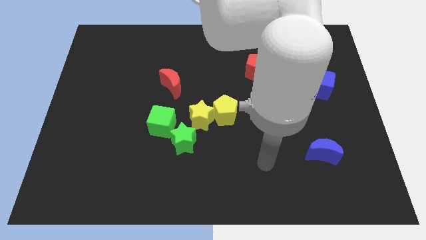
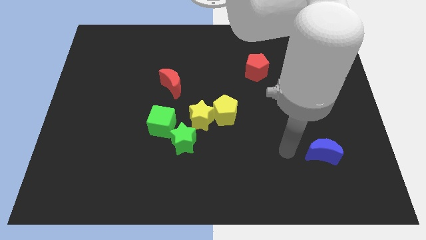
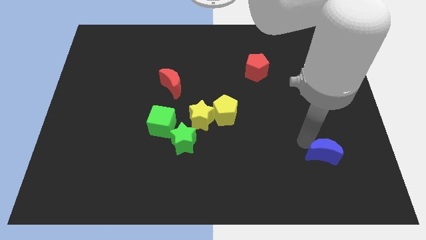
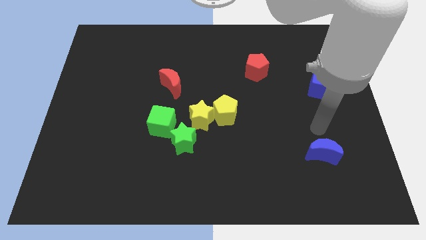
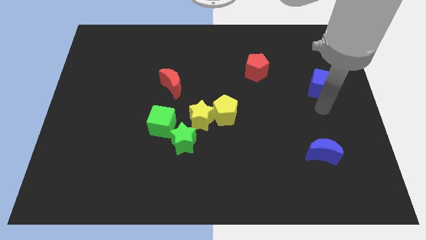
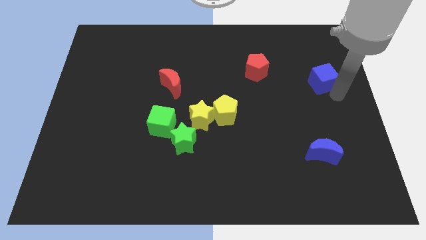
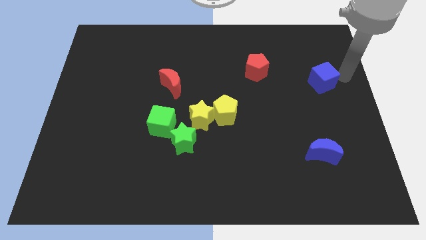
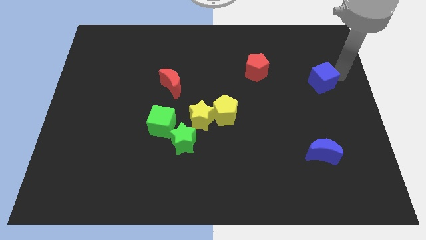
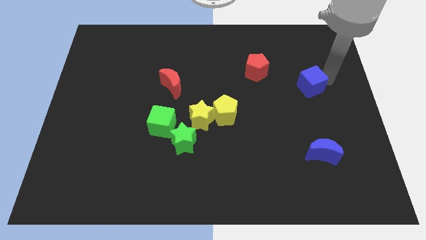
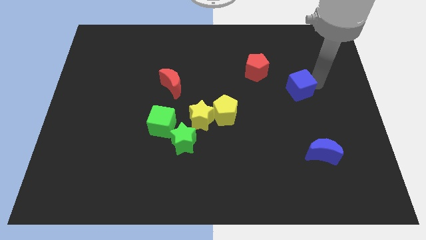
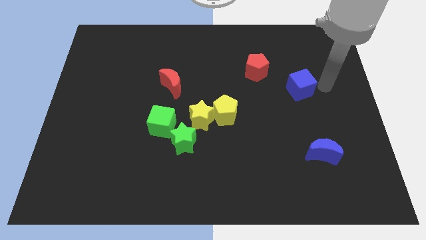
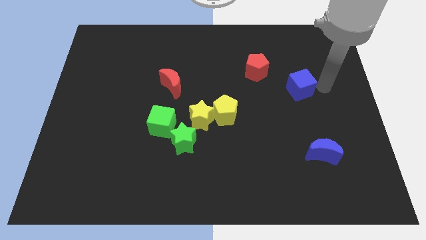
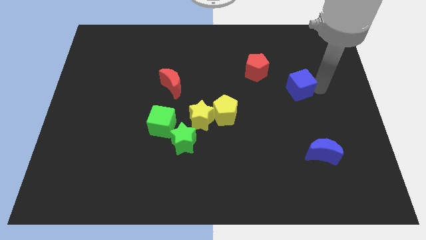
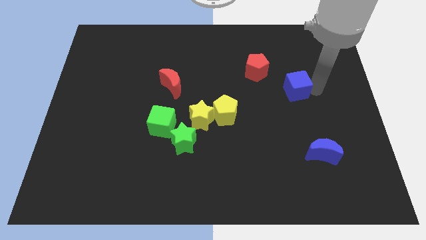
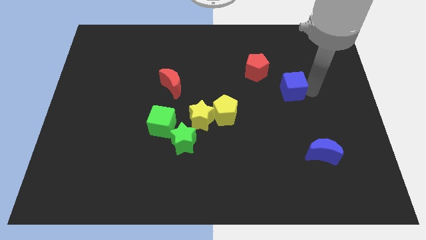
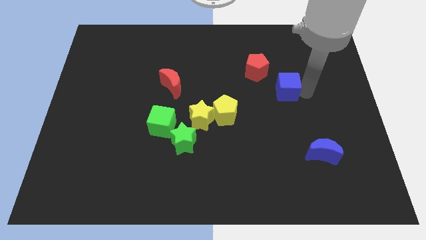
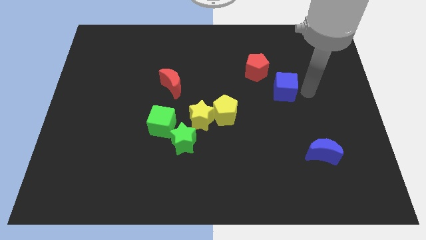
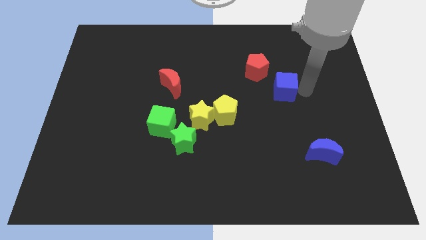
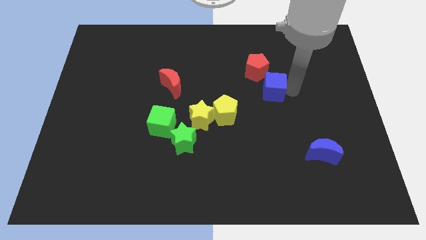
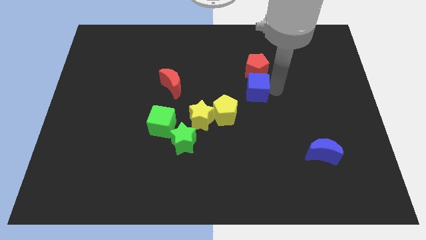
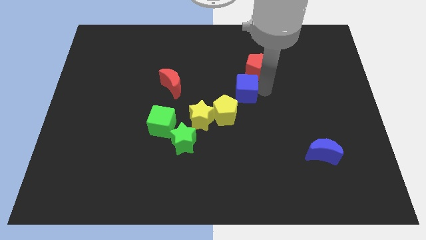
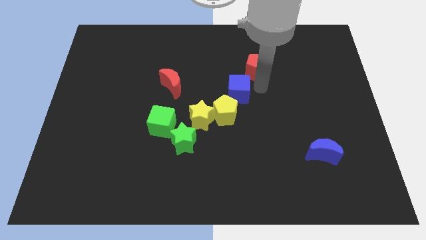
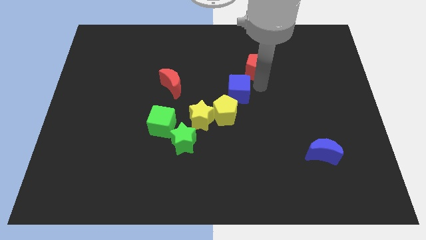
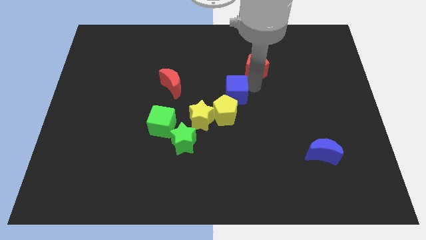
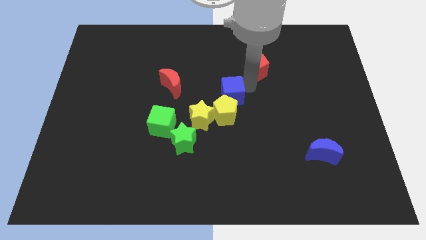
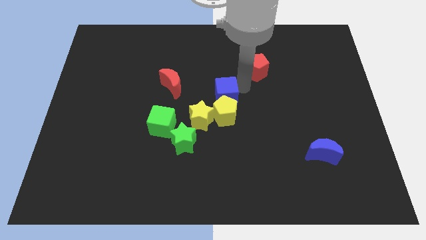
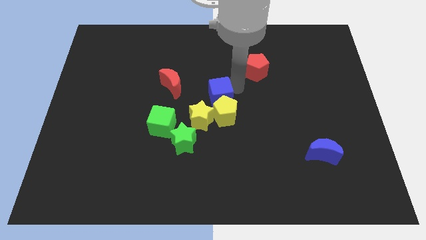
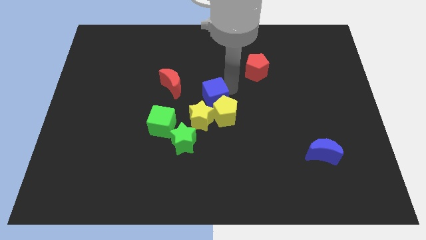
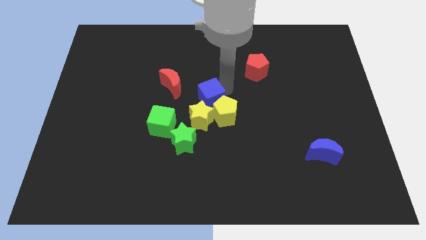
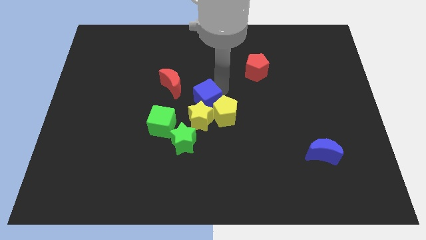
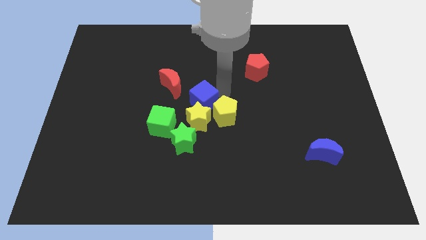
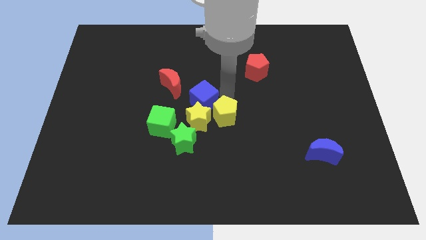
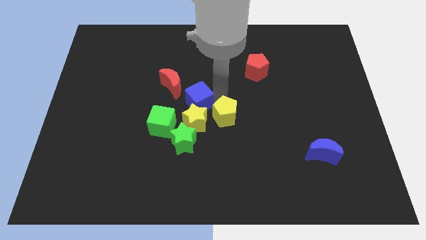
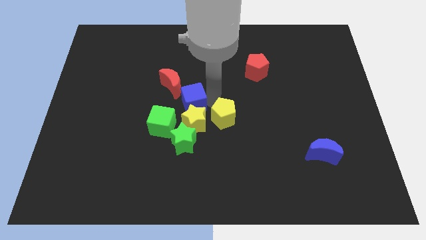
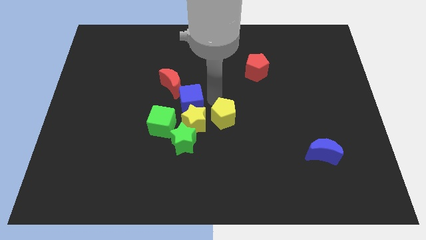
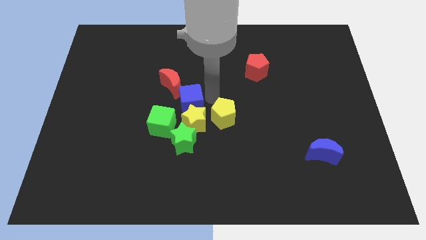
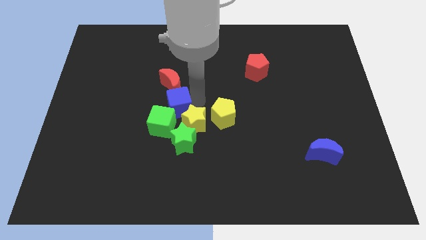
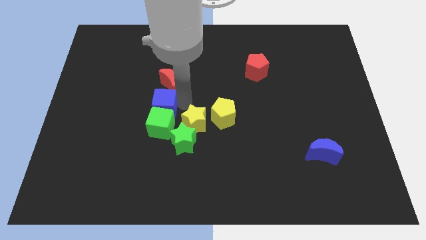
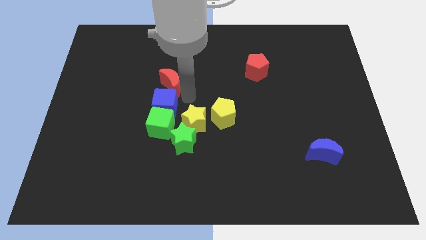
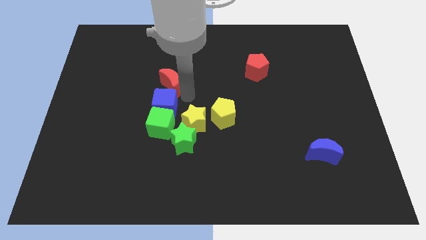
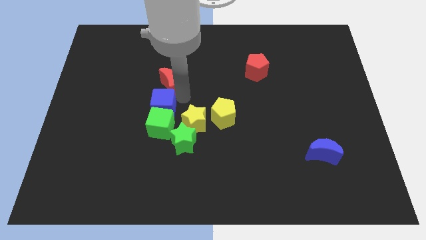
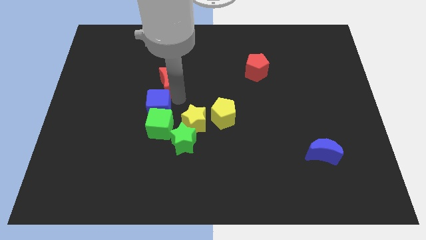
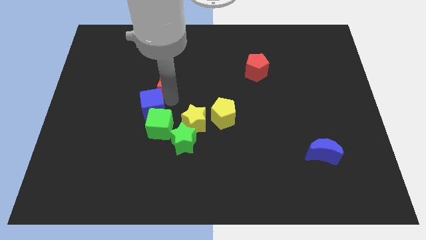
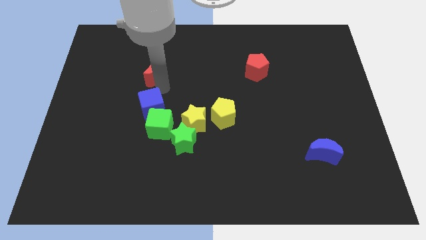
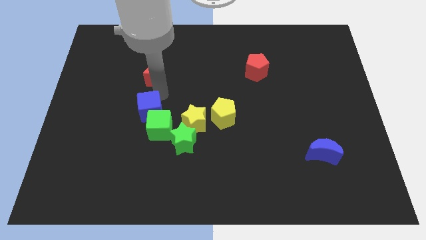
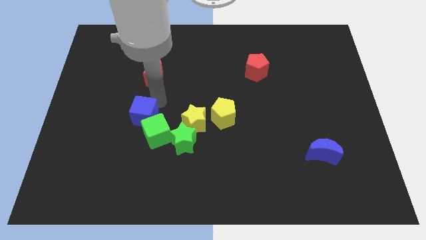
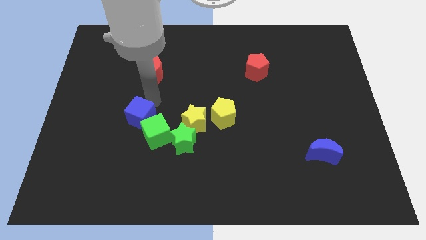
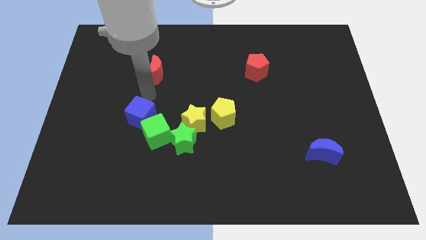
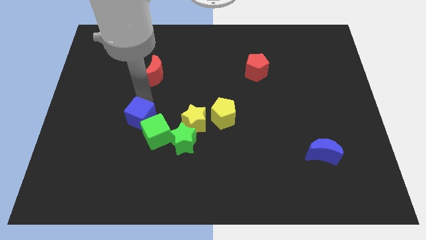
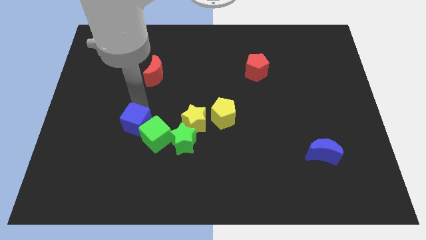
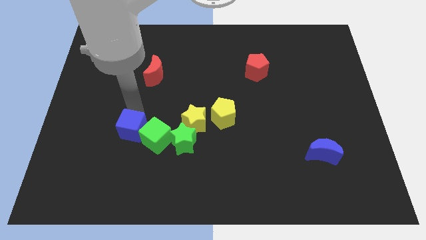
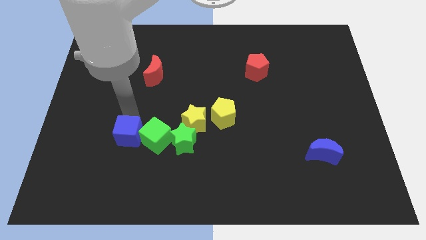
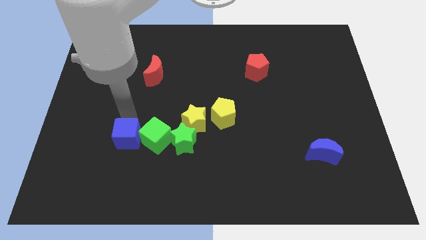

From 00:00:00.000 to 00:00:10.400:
slide the blue cube to the bottom left of the green cube

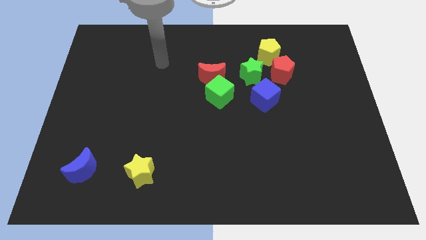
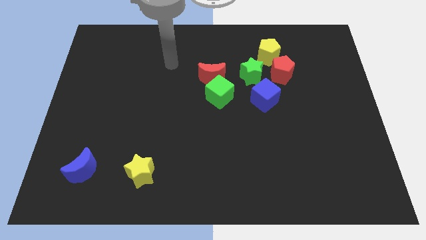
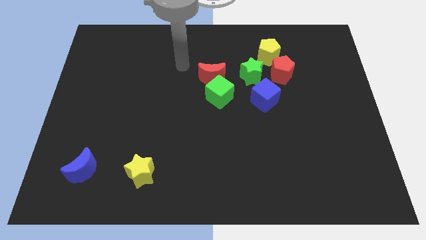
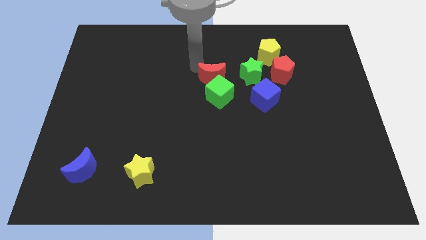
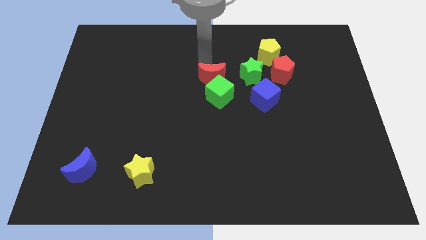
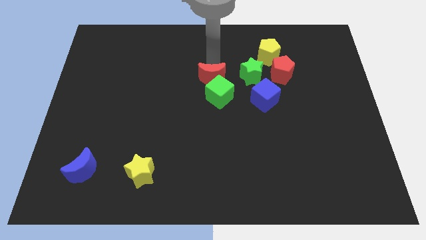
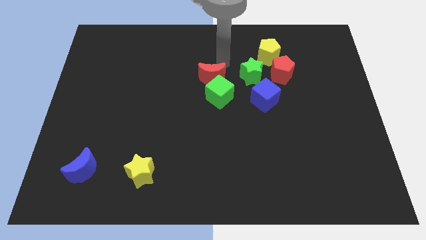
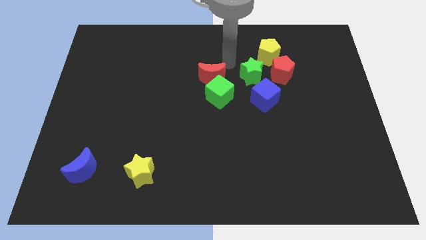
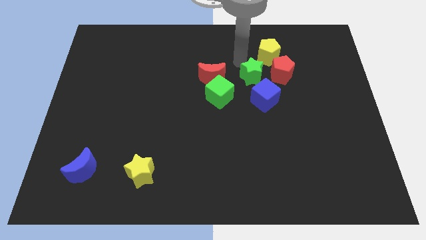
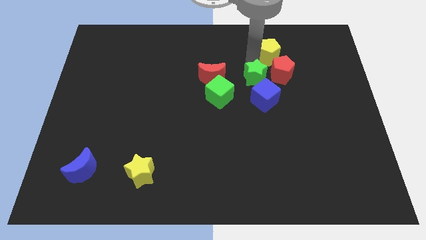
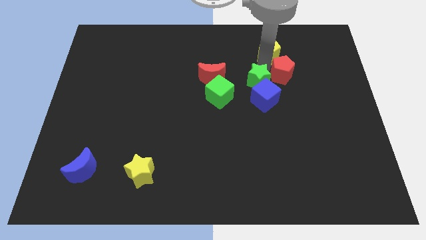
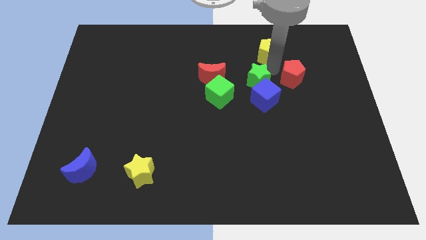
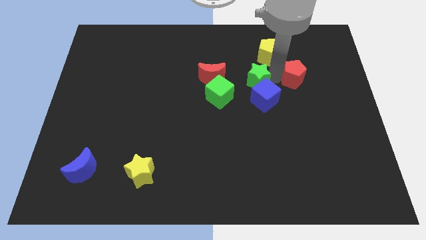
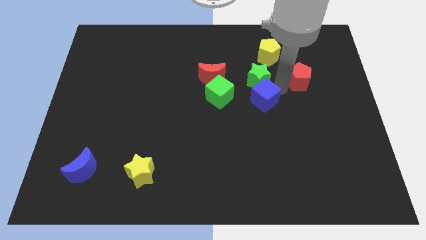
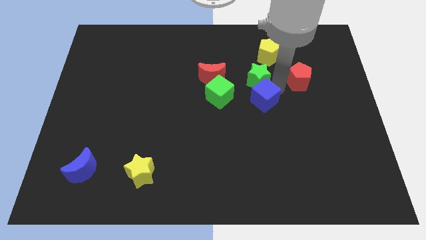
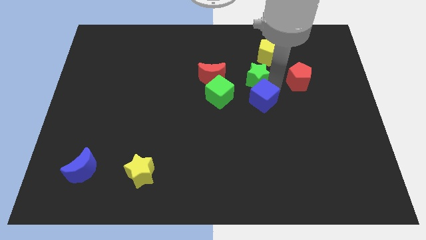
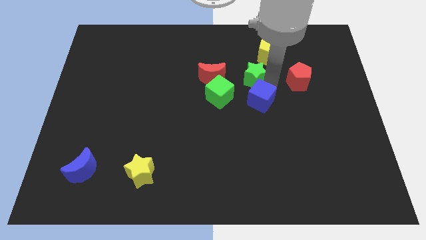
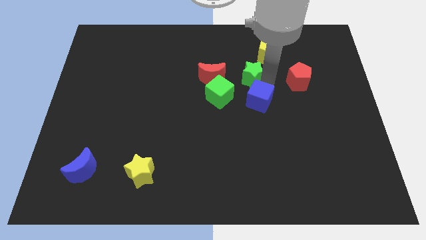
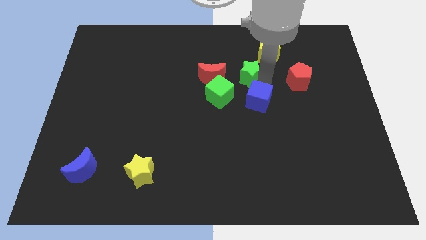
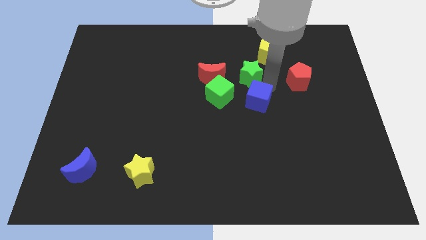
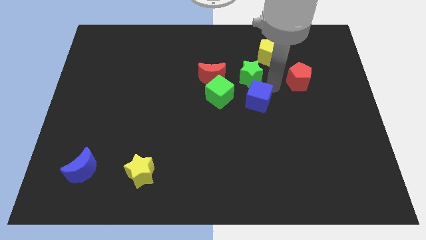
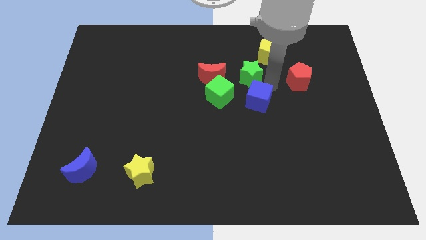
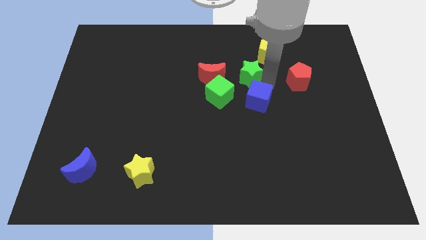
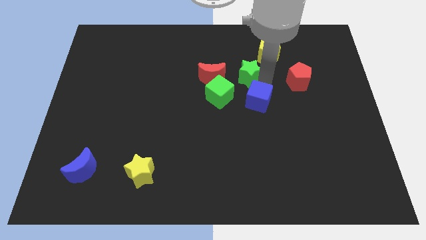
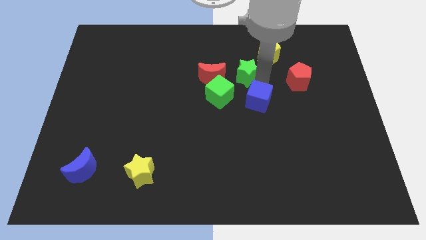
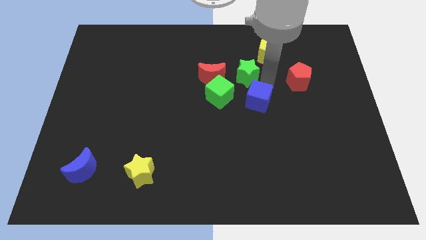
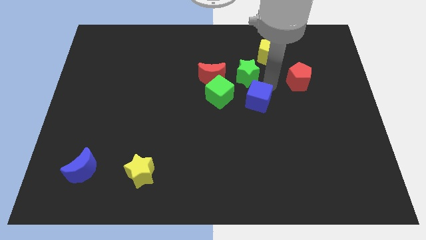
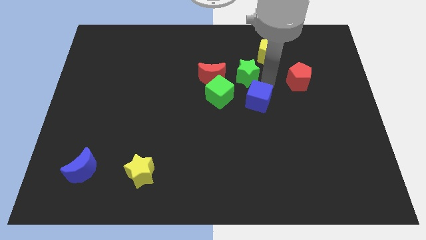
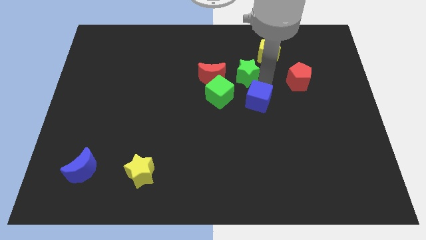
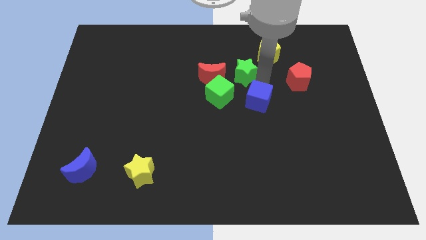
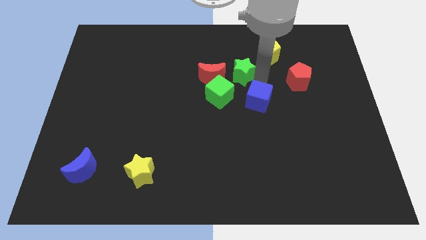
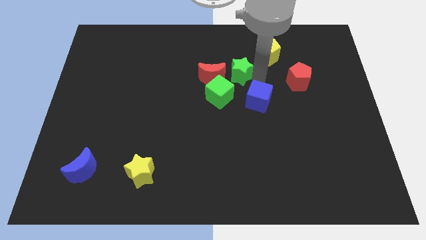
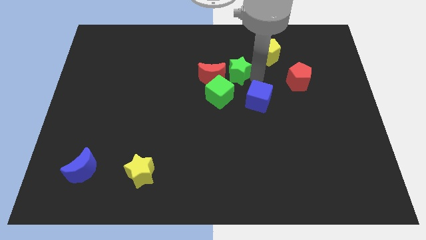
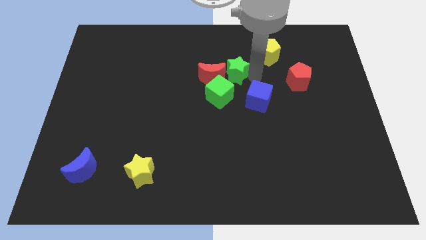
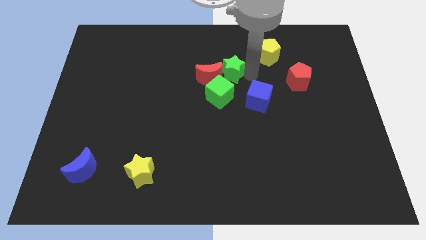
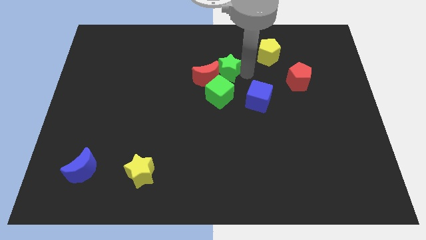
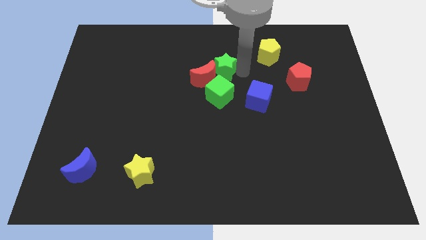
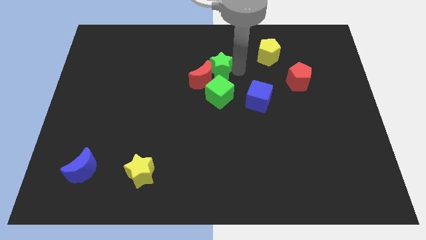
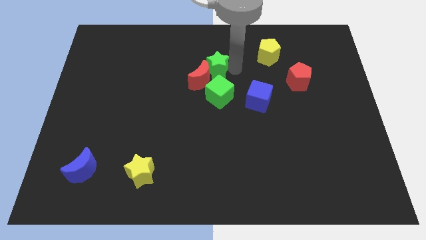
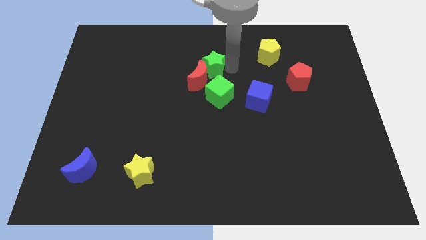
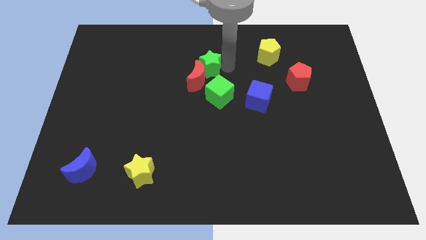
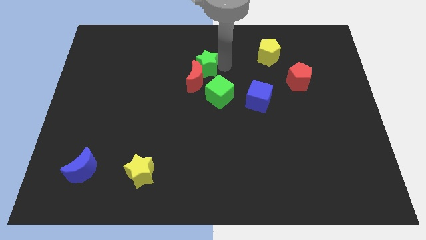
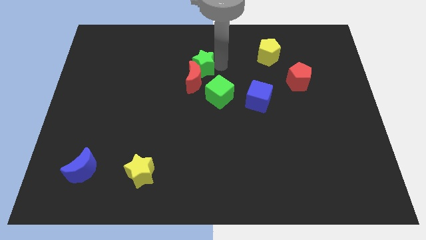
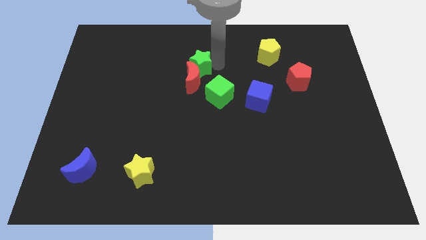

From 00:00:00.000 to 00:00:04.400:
put the green star to the top left of the red moon
